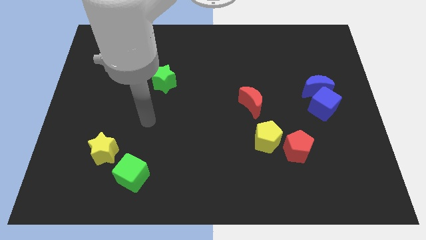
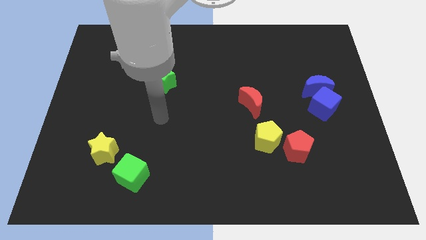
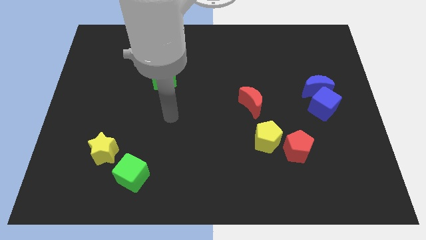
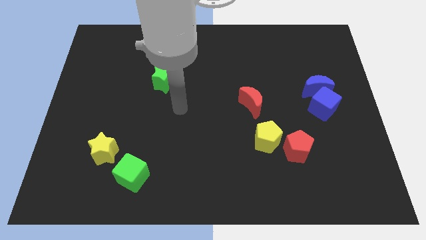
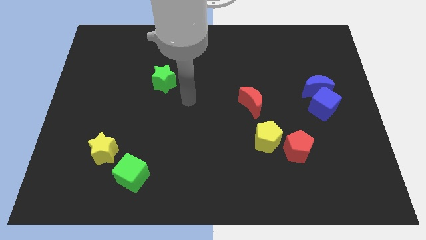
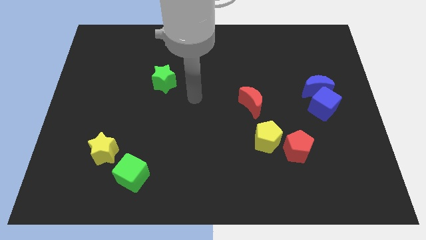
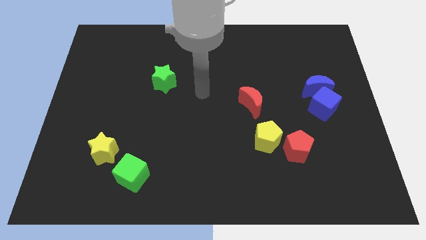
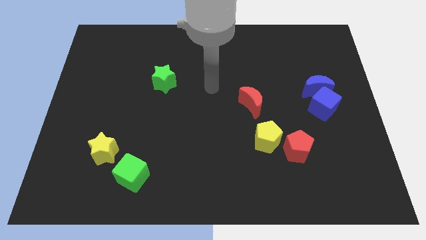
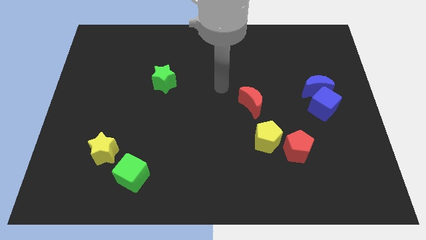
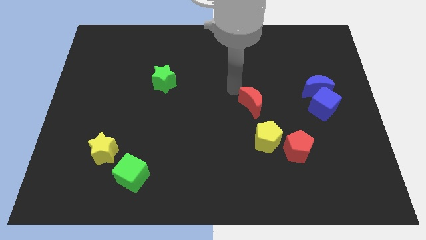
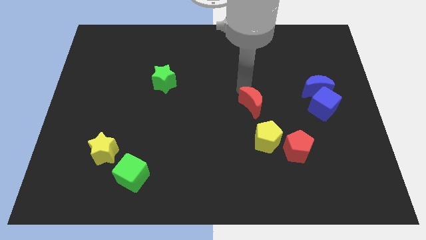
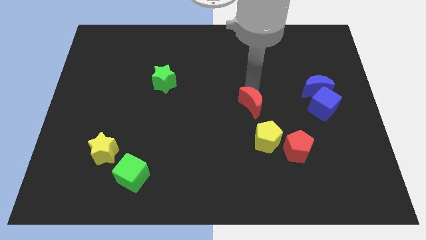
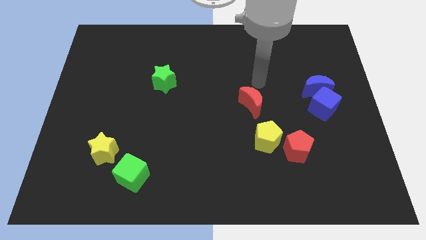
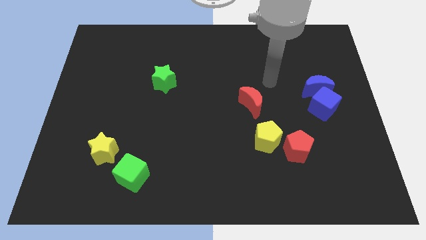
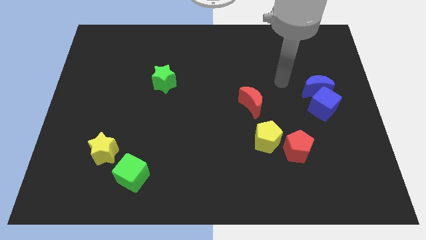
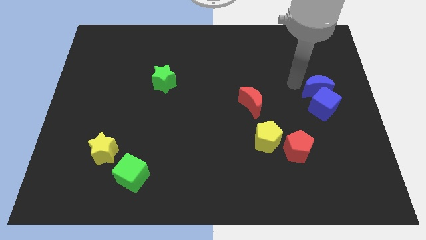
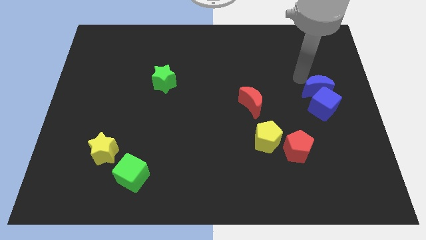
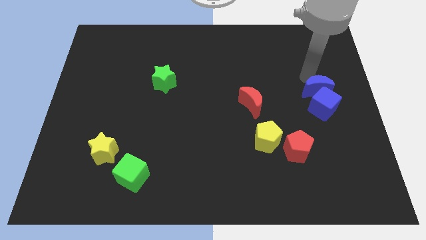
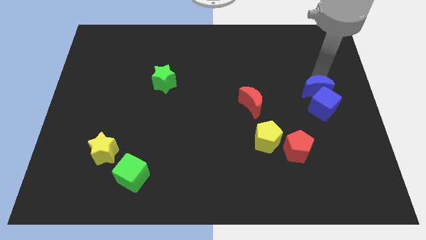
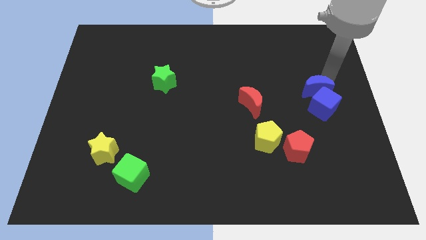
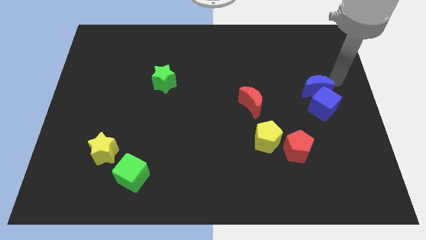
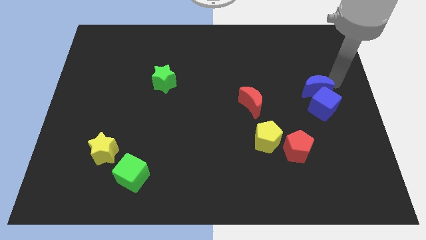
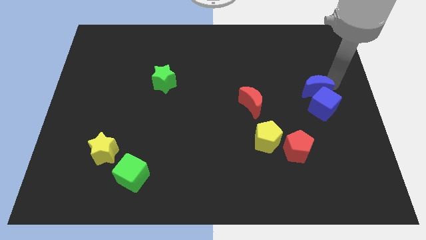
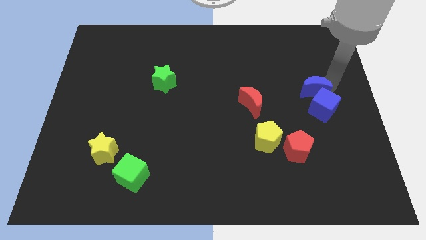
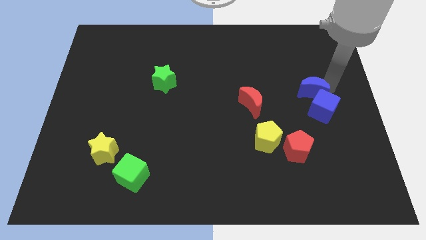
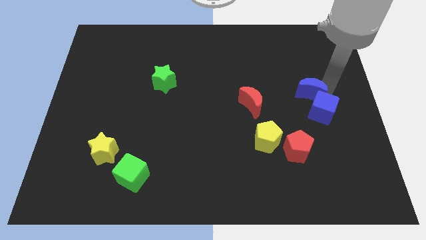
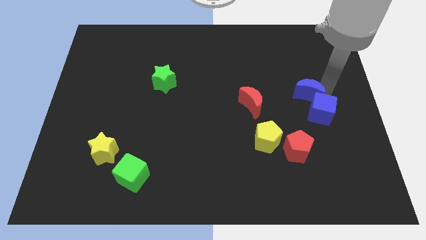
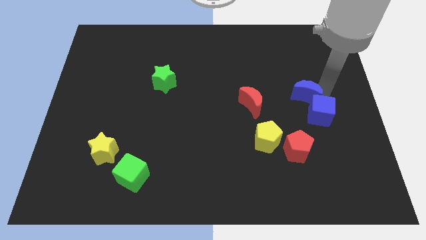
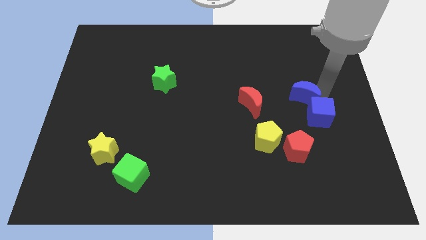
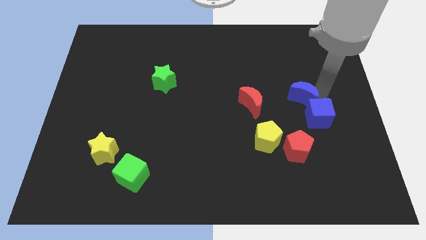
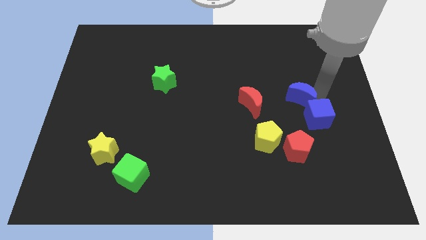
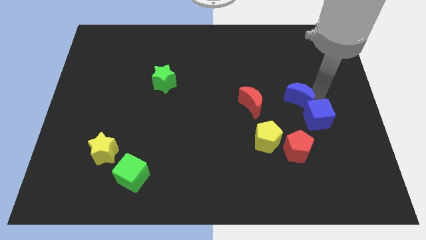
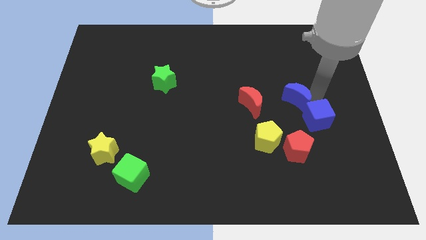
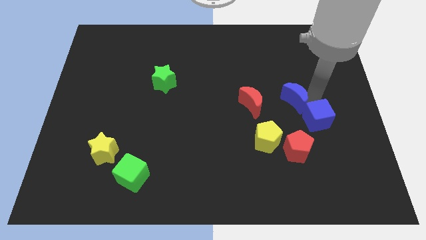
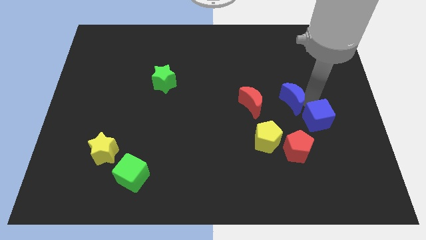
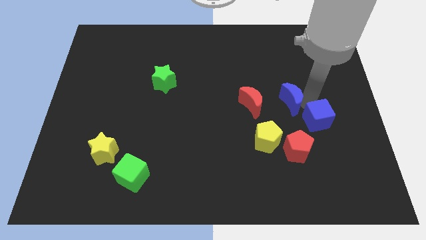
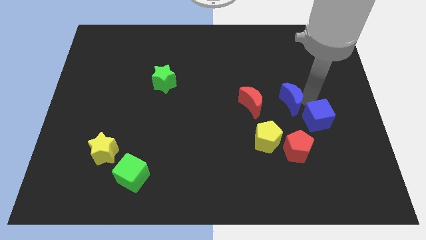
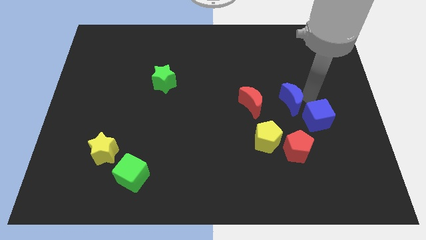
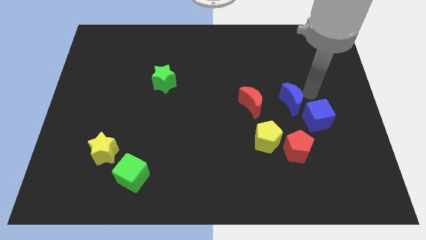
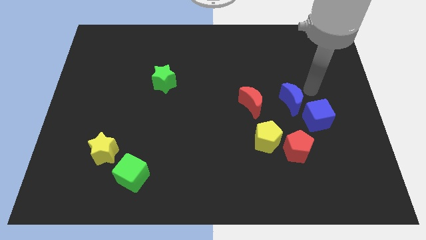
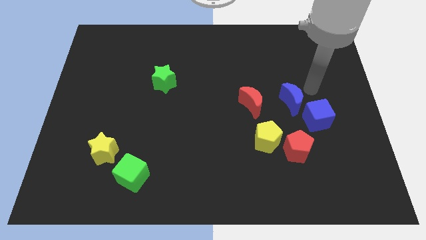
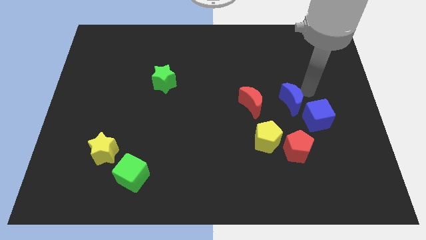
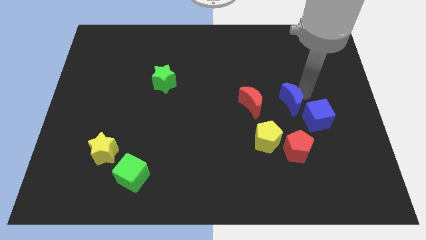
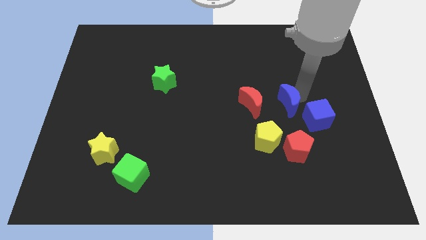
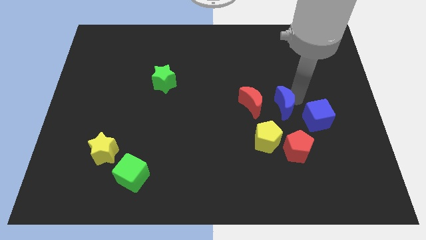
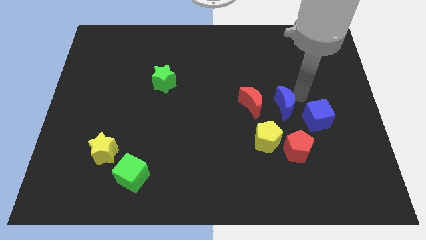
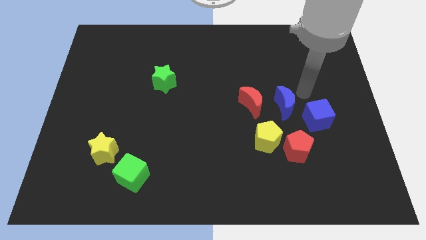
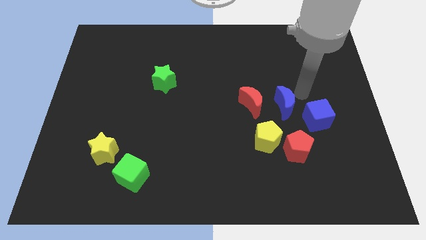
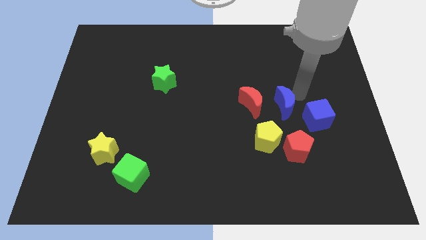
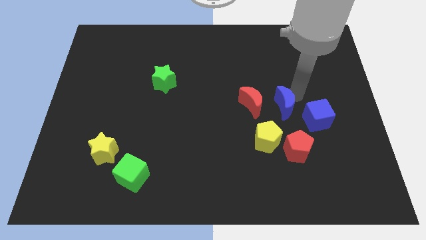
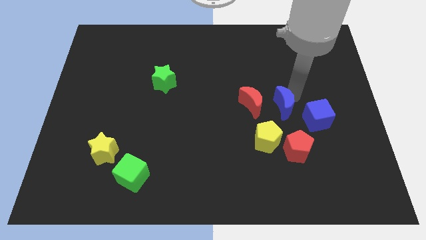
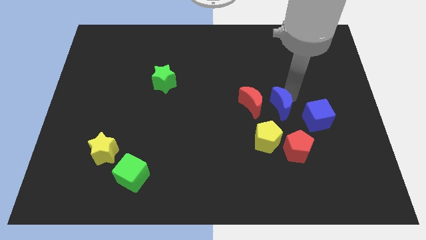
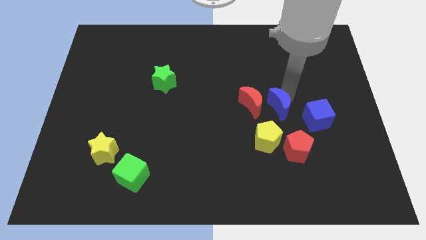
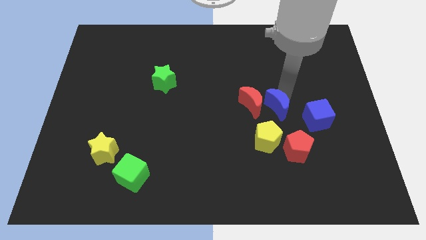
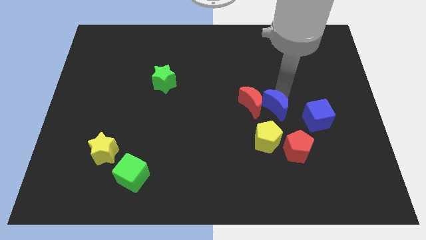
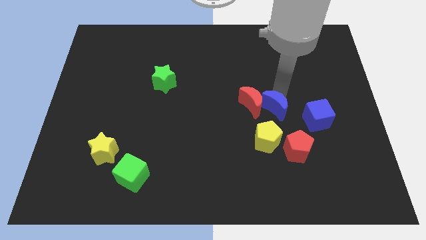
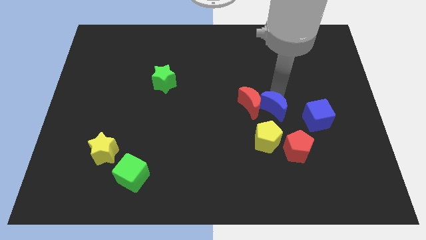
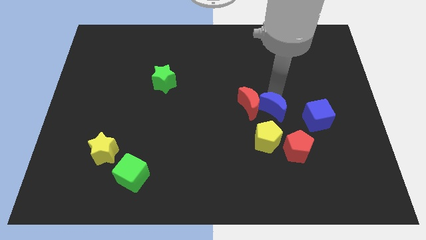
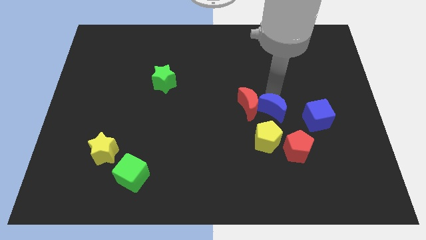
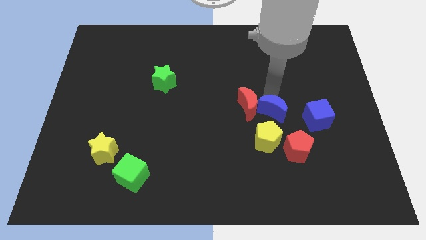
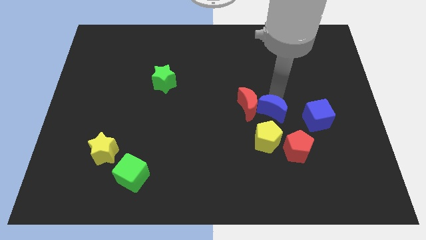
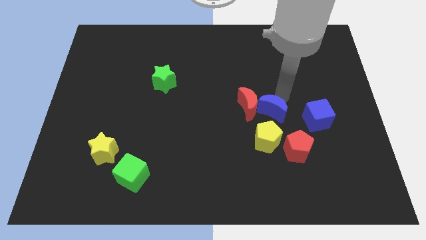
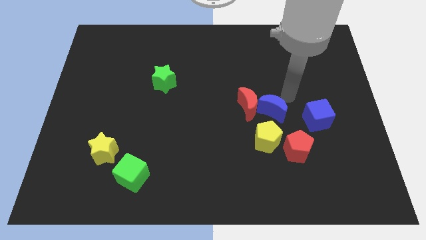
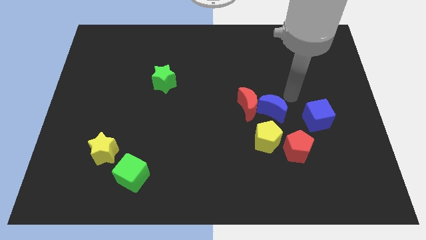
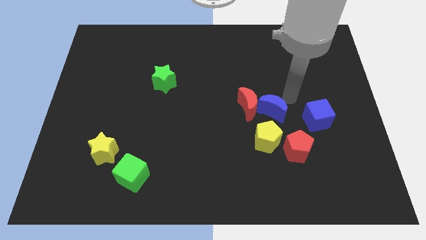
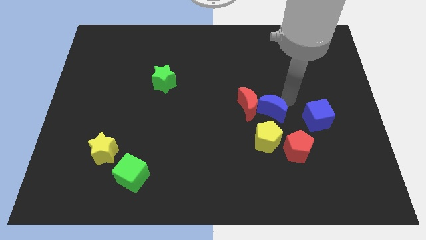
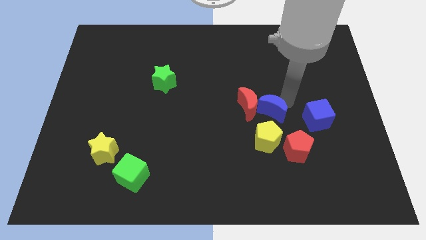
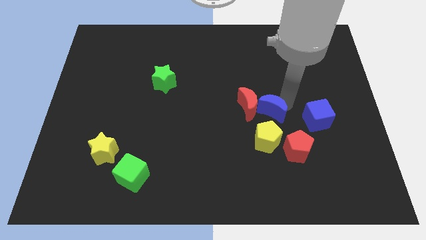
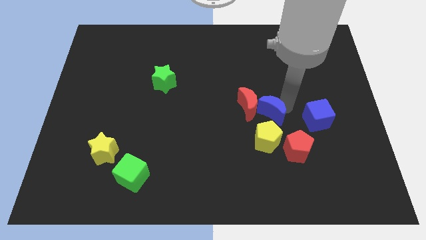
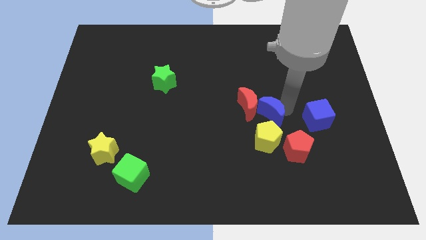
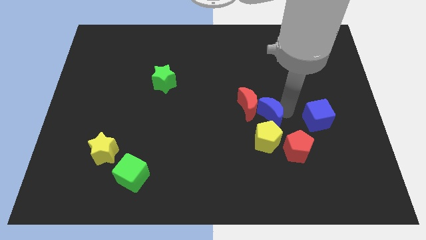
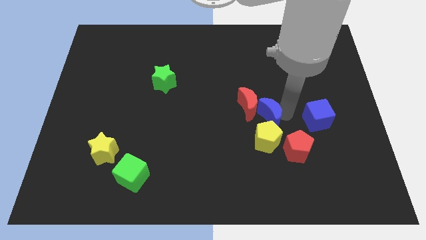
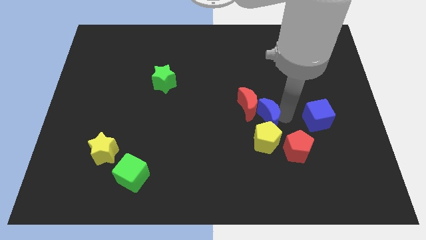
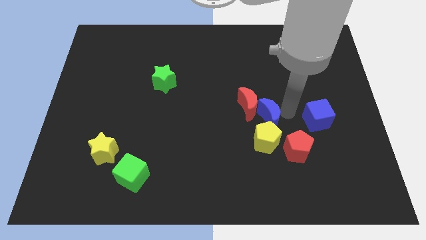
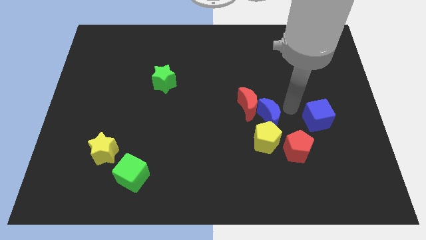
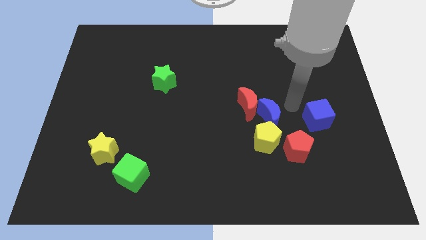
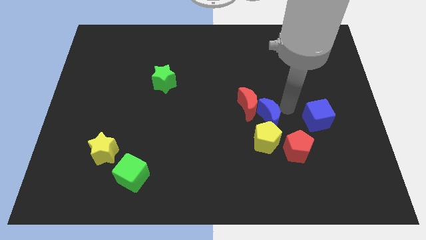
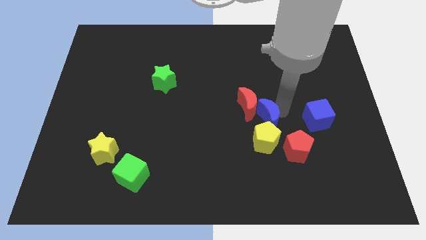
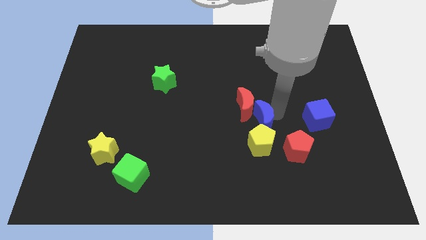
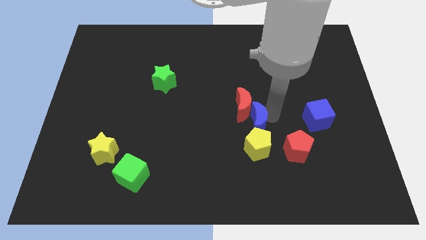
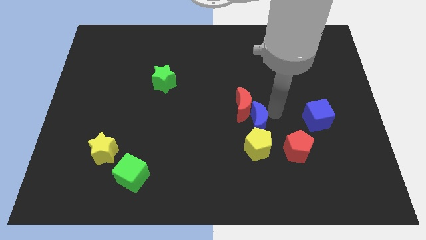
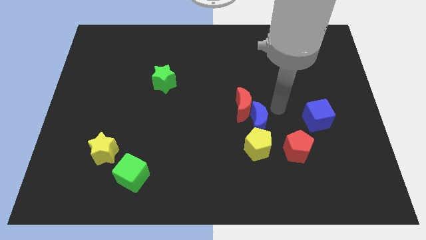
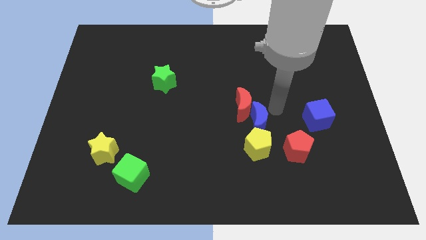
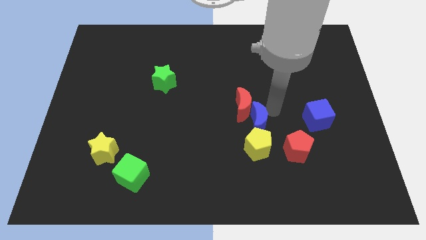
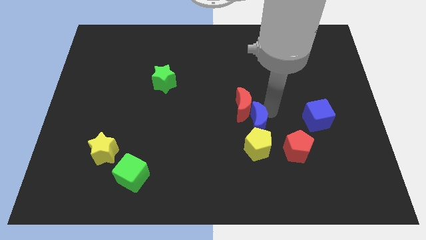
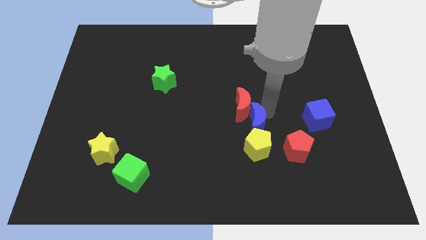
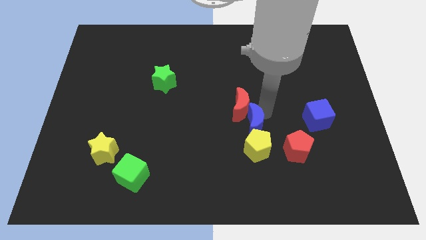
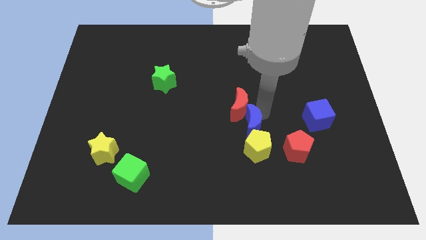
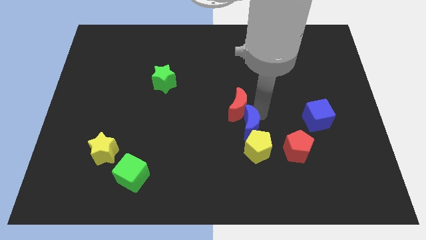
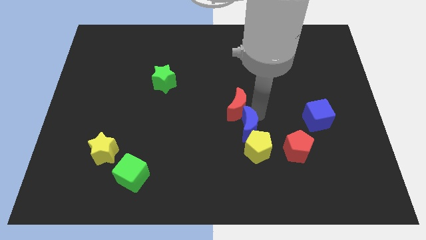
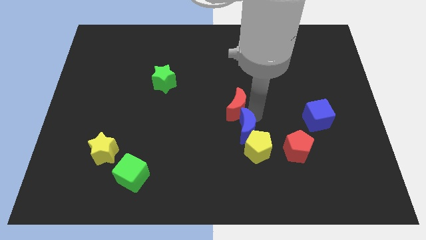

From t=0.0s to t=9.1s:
slide the blue moon downwards and to the left
